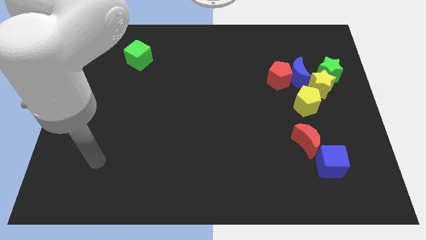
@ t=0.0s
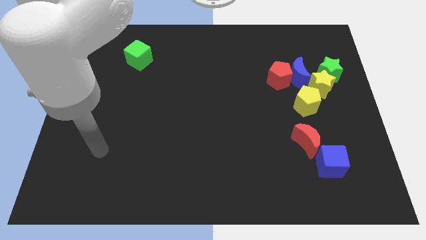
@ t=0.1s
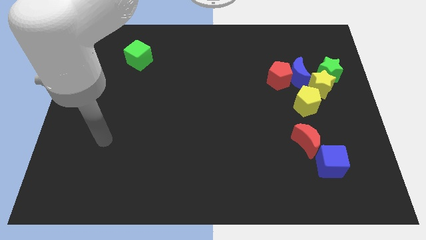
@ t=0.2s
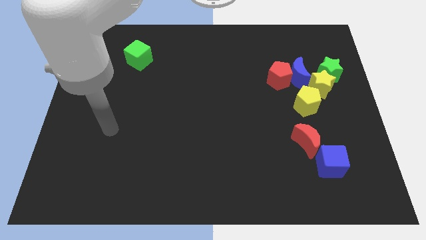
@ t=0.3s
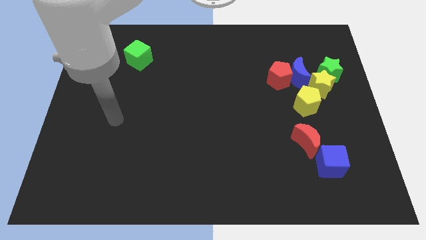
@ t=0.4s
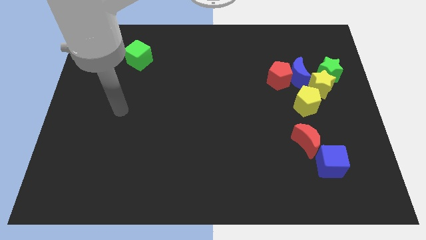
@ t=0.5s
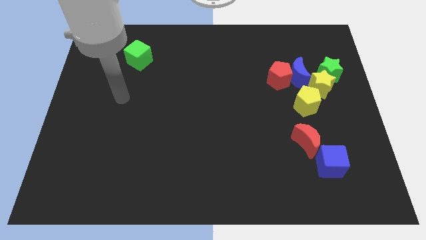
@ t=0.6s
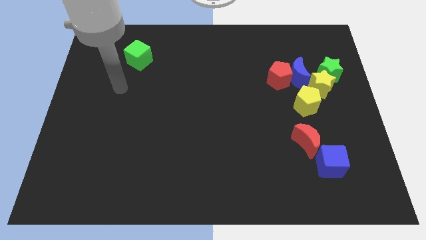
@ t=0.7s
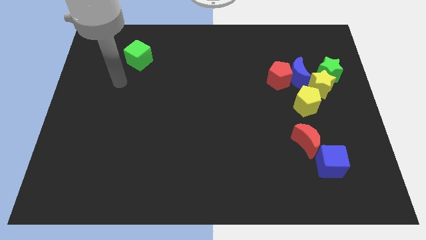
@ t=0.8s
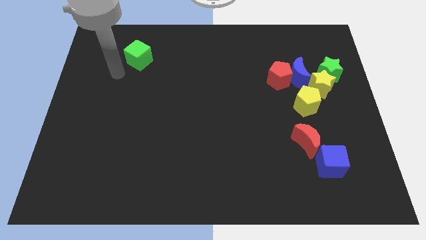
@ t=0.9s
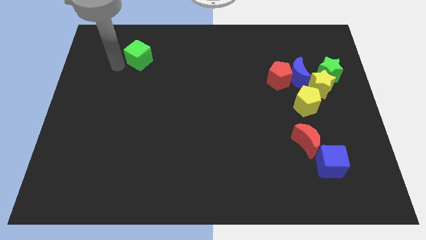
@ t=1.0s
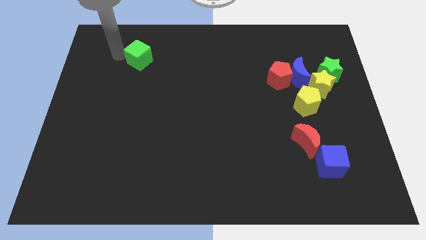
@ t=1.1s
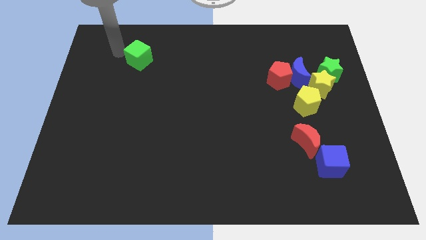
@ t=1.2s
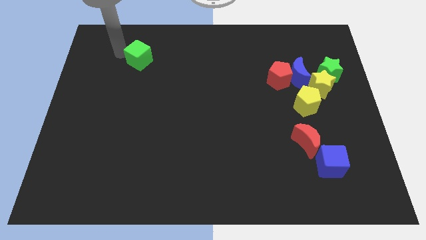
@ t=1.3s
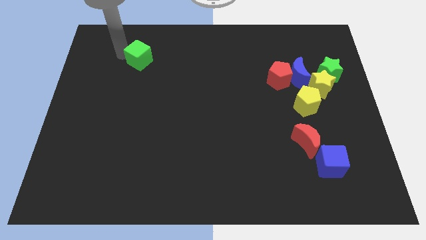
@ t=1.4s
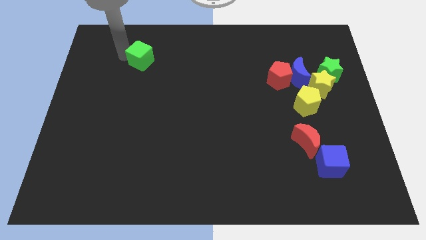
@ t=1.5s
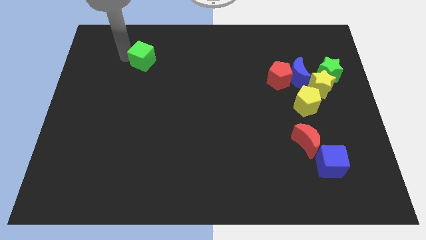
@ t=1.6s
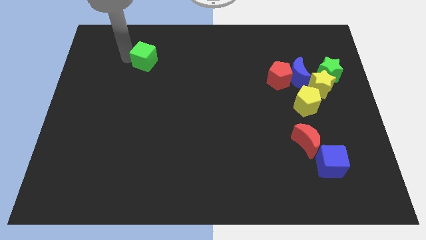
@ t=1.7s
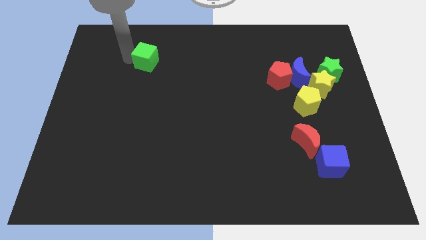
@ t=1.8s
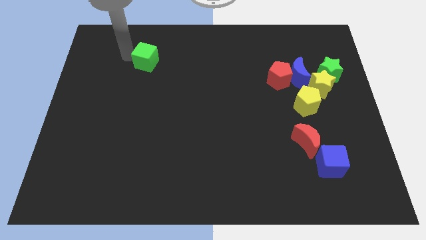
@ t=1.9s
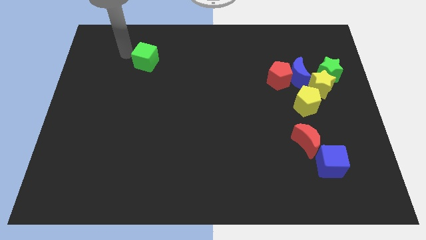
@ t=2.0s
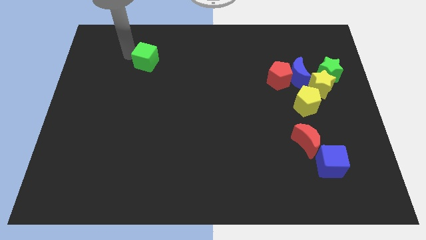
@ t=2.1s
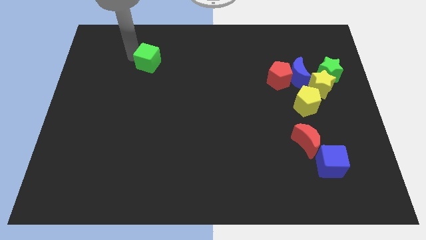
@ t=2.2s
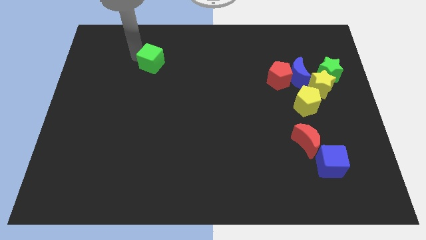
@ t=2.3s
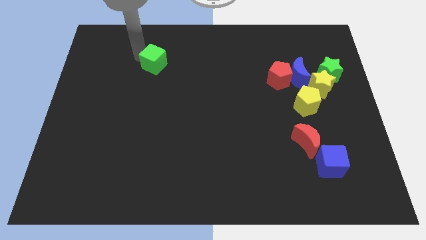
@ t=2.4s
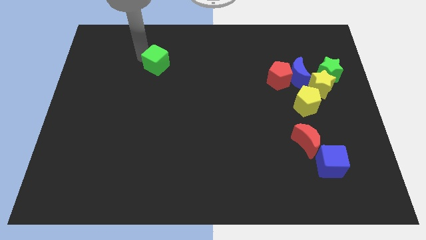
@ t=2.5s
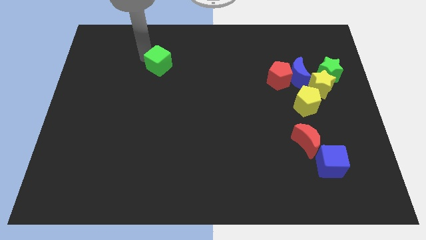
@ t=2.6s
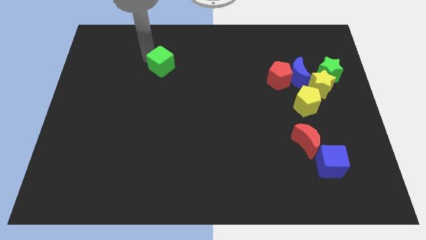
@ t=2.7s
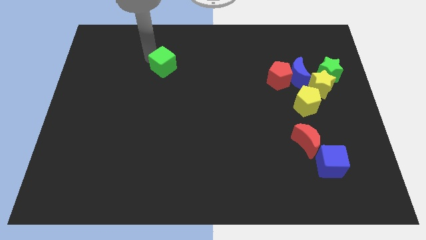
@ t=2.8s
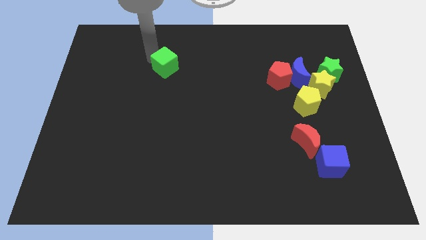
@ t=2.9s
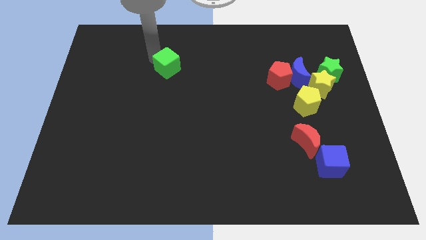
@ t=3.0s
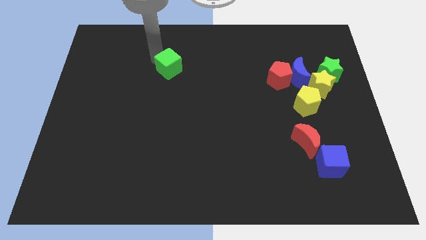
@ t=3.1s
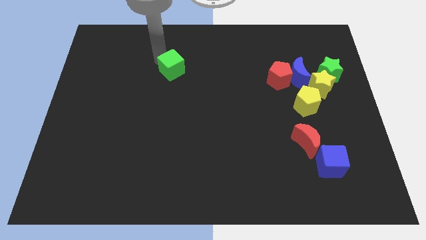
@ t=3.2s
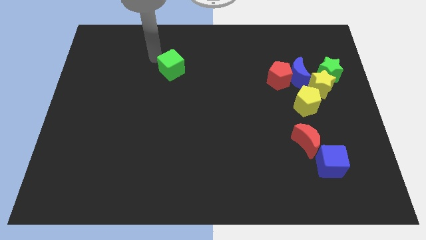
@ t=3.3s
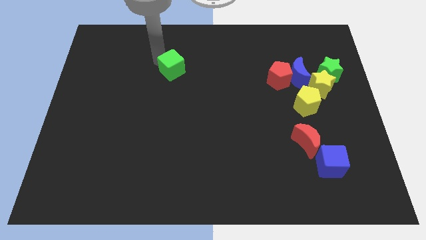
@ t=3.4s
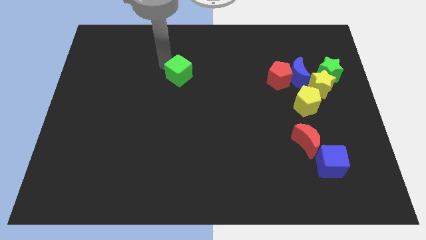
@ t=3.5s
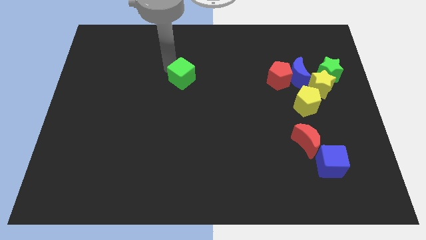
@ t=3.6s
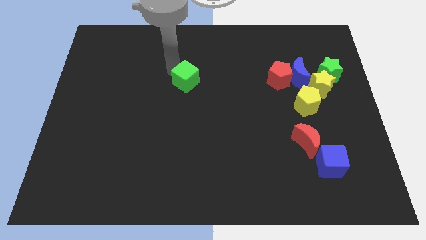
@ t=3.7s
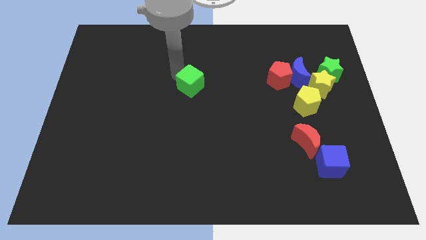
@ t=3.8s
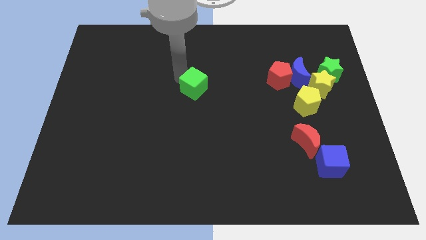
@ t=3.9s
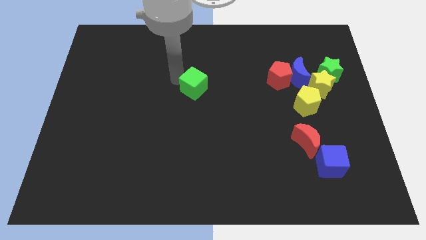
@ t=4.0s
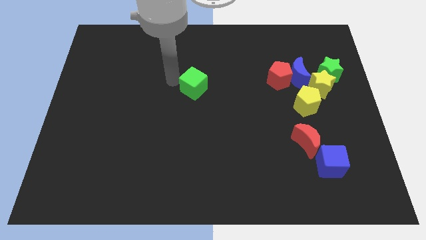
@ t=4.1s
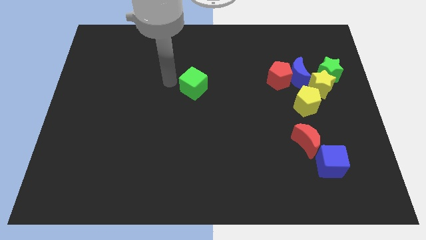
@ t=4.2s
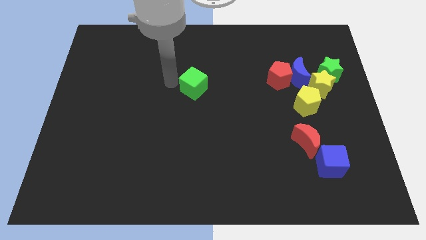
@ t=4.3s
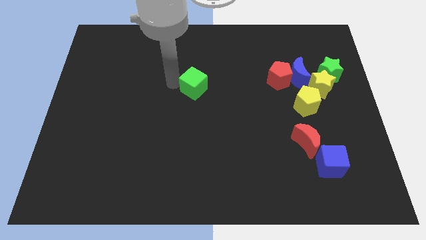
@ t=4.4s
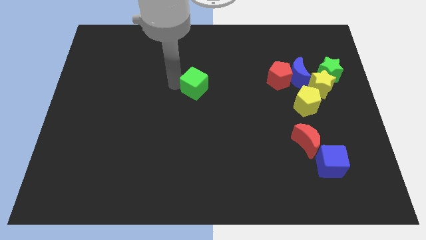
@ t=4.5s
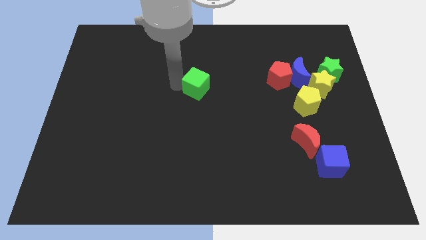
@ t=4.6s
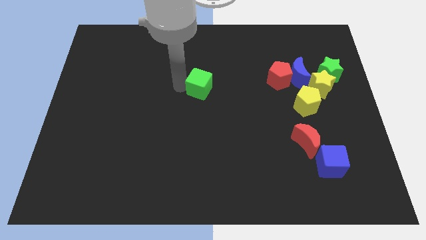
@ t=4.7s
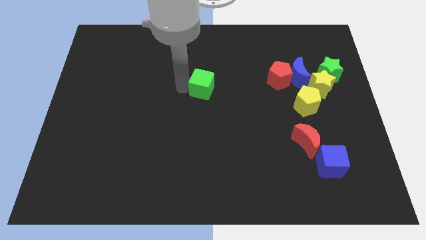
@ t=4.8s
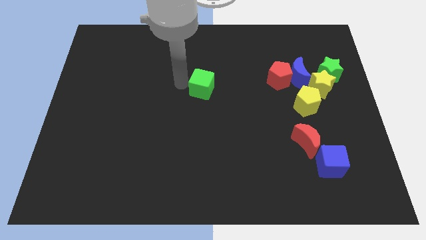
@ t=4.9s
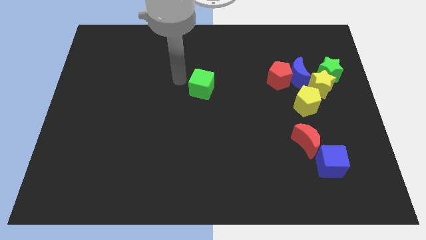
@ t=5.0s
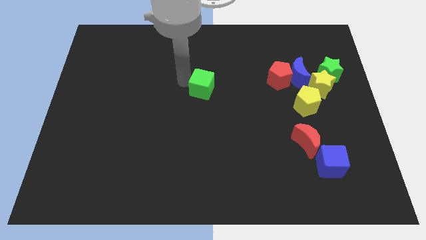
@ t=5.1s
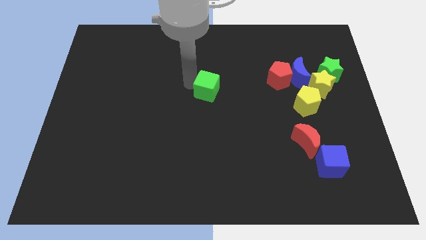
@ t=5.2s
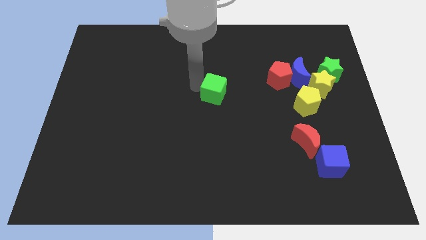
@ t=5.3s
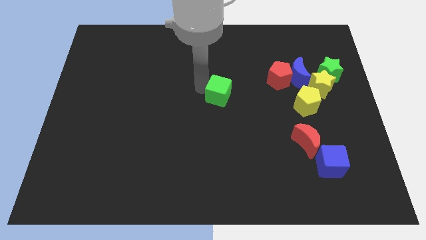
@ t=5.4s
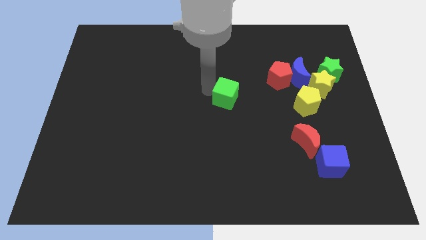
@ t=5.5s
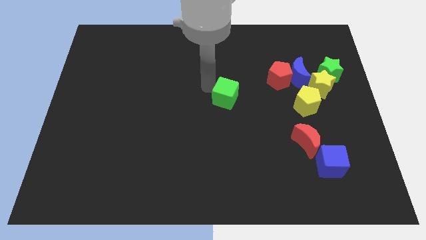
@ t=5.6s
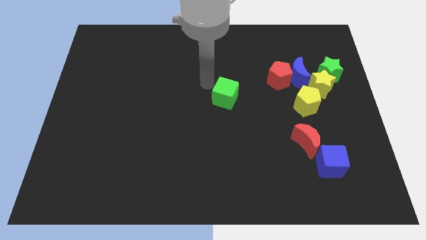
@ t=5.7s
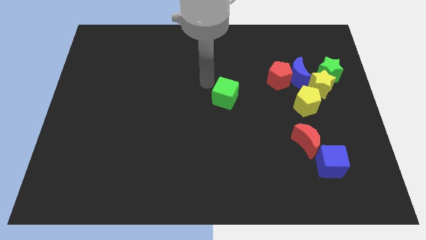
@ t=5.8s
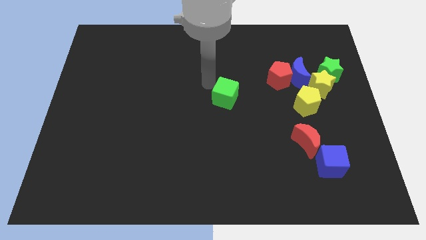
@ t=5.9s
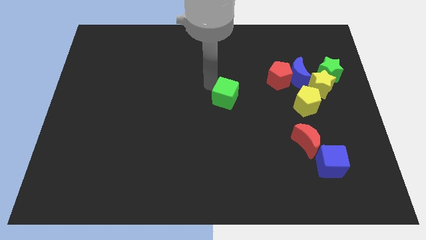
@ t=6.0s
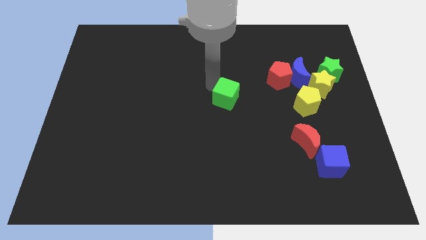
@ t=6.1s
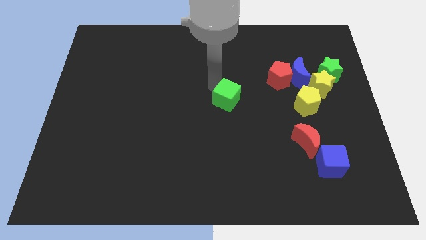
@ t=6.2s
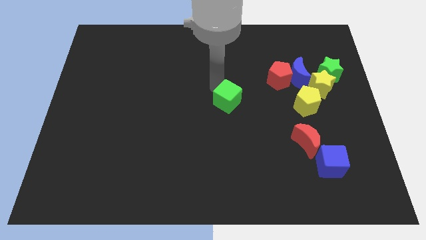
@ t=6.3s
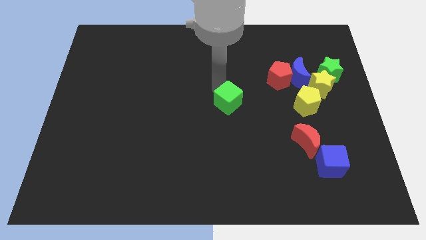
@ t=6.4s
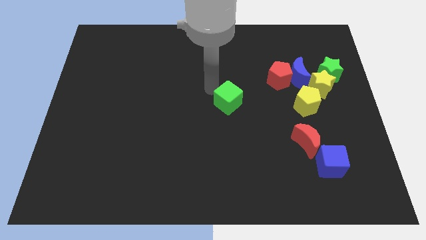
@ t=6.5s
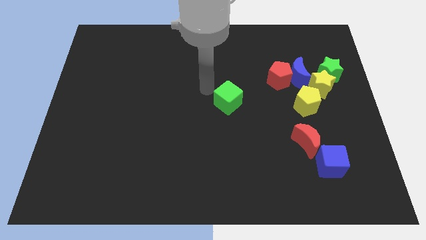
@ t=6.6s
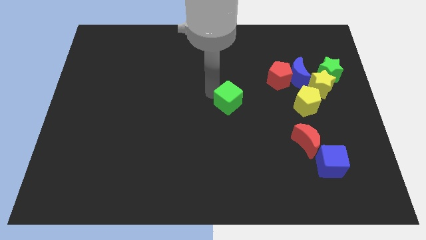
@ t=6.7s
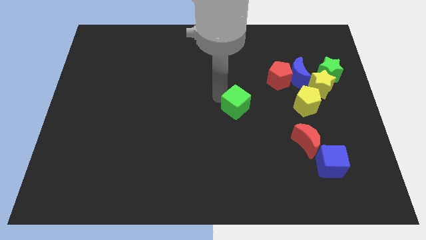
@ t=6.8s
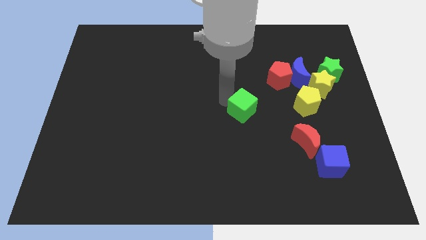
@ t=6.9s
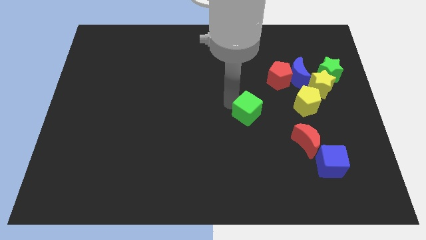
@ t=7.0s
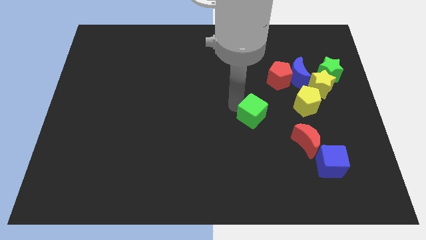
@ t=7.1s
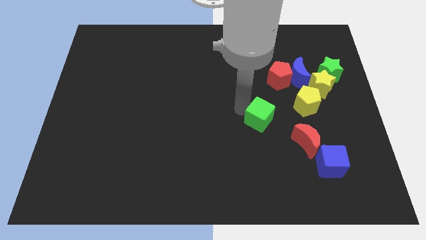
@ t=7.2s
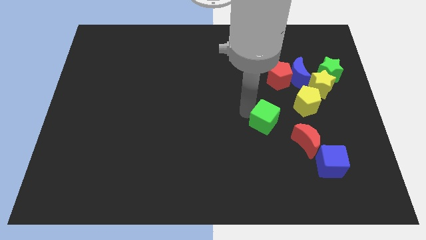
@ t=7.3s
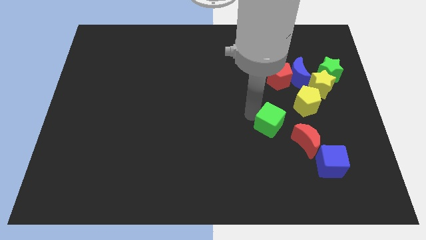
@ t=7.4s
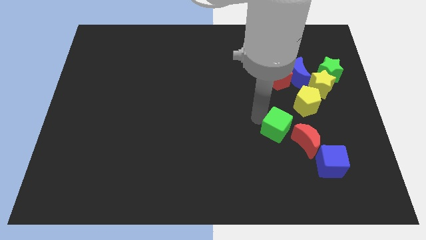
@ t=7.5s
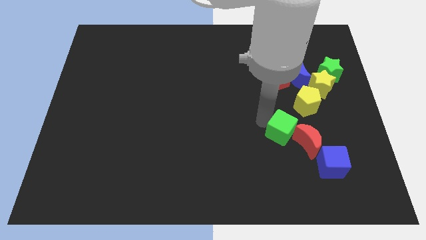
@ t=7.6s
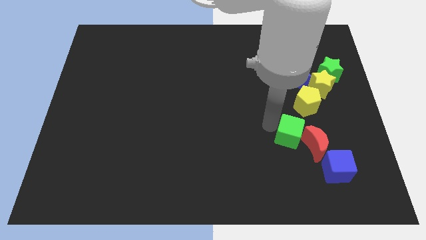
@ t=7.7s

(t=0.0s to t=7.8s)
put the green cube to the red moon

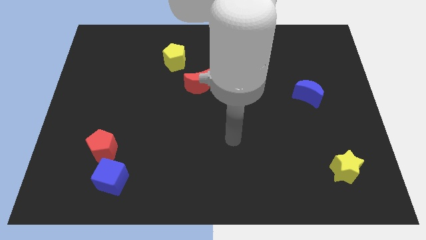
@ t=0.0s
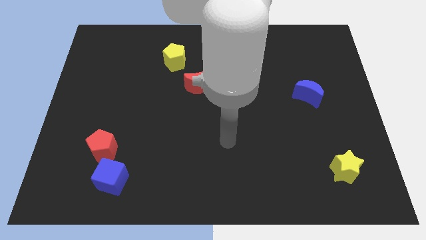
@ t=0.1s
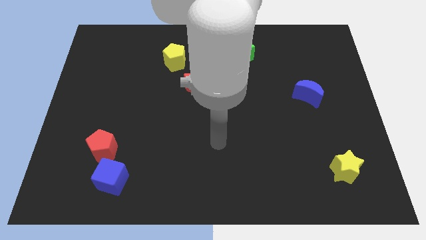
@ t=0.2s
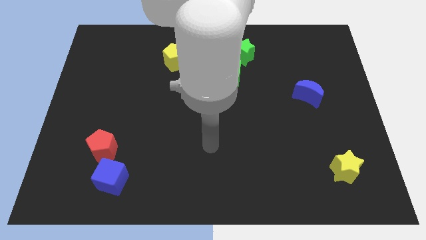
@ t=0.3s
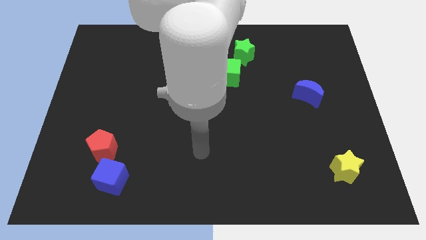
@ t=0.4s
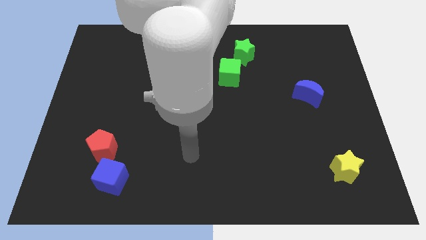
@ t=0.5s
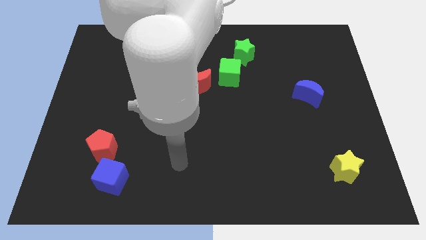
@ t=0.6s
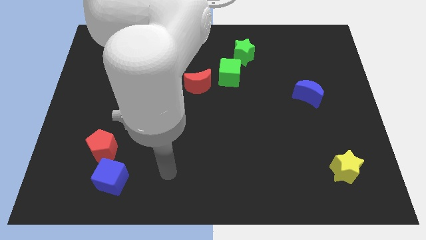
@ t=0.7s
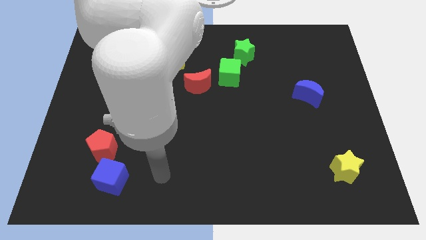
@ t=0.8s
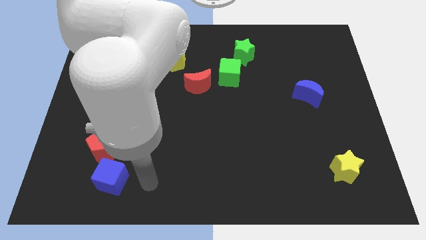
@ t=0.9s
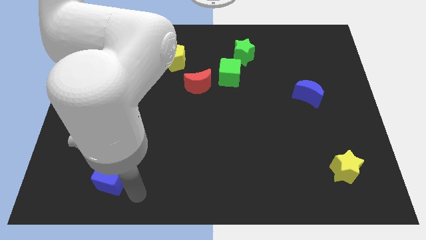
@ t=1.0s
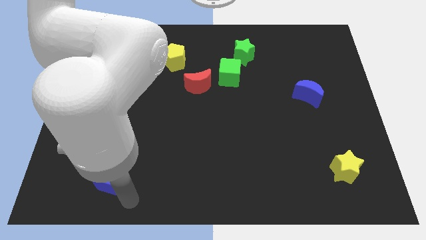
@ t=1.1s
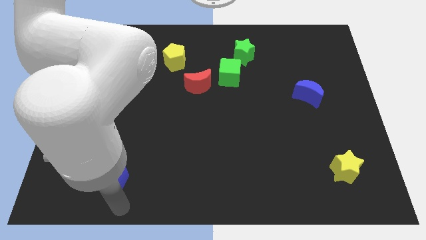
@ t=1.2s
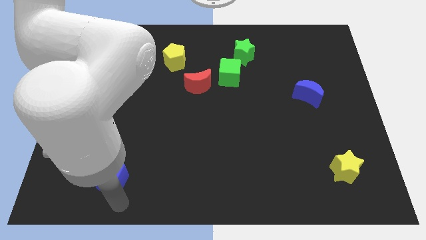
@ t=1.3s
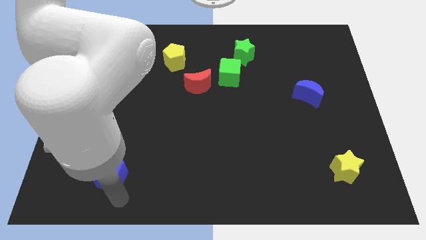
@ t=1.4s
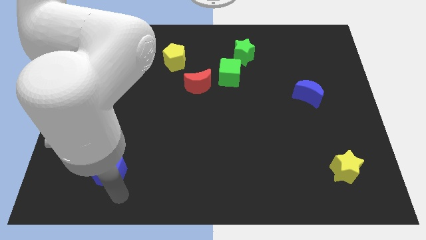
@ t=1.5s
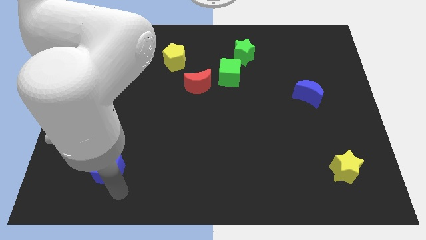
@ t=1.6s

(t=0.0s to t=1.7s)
move the blue cube to the red pentagon
